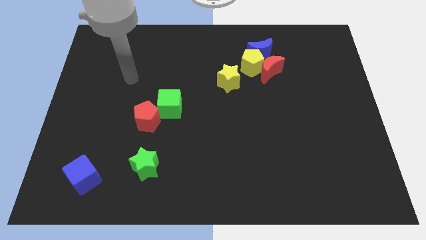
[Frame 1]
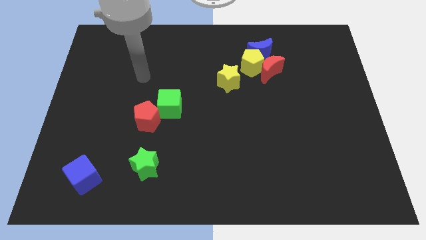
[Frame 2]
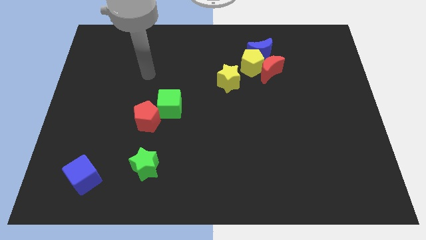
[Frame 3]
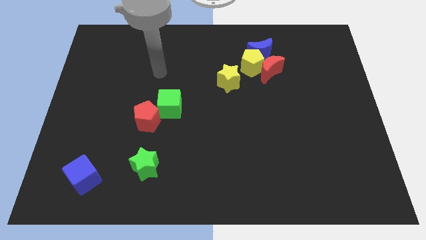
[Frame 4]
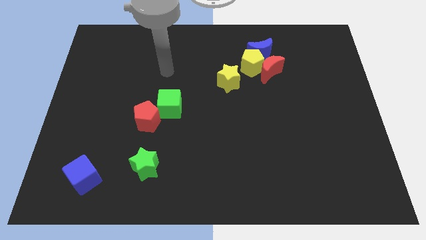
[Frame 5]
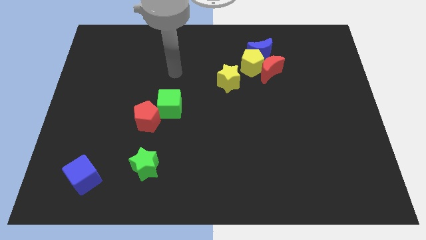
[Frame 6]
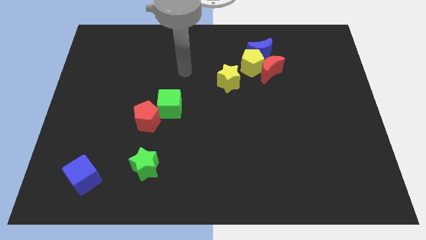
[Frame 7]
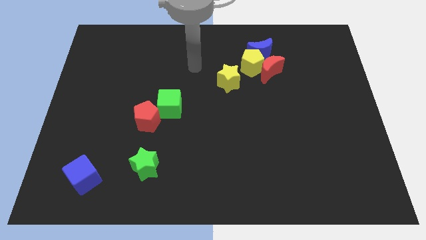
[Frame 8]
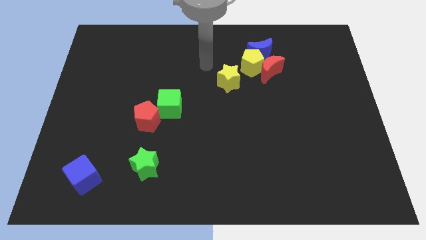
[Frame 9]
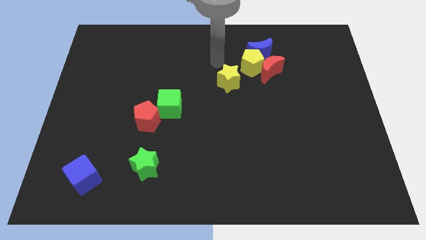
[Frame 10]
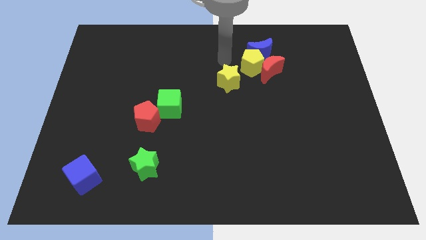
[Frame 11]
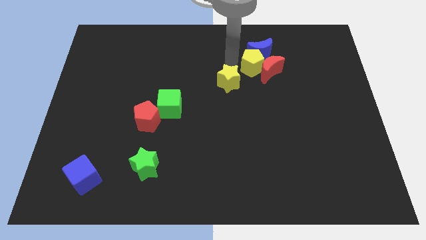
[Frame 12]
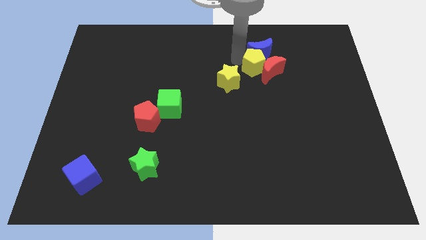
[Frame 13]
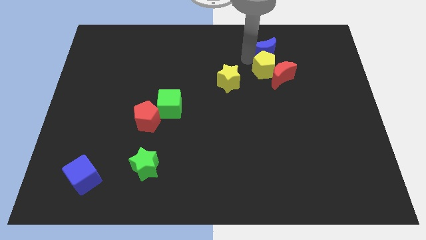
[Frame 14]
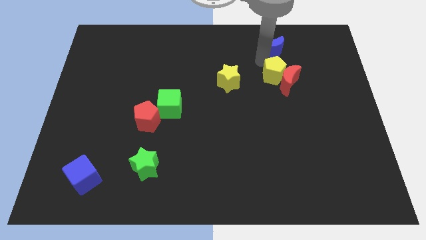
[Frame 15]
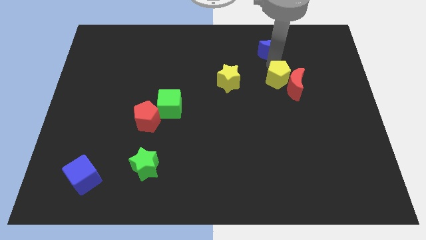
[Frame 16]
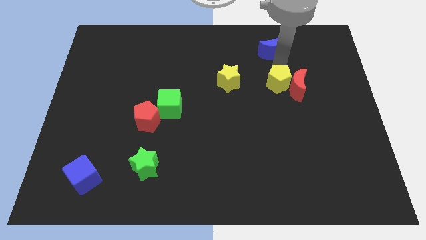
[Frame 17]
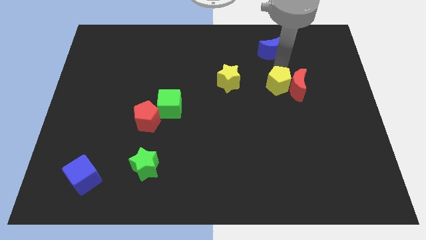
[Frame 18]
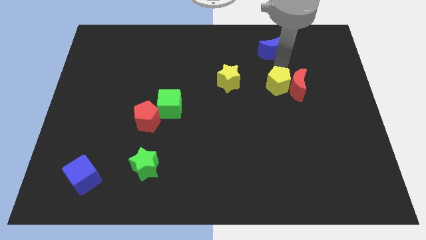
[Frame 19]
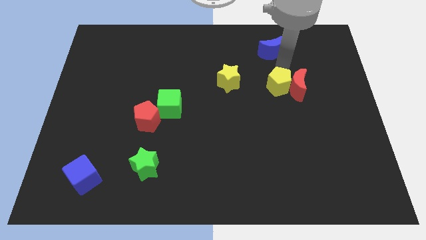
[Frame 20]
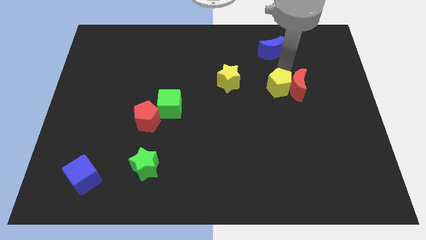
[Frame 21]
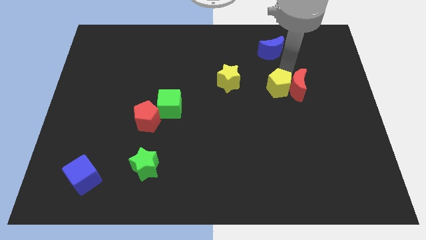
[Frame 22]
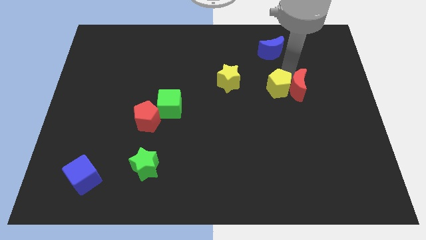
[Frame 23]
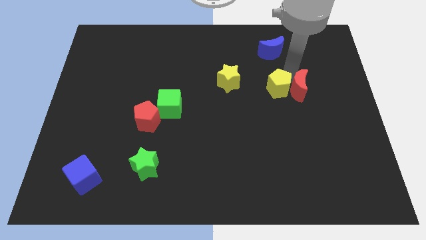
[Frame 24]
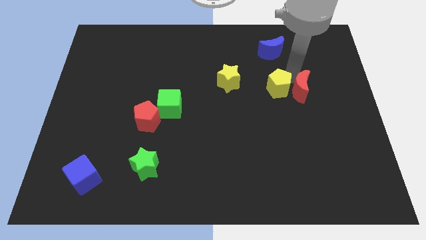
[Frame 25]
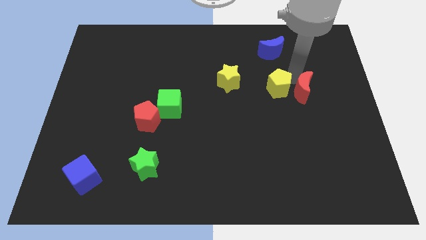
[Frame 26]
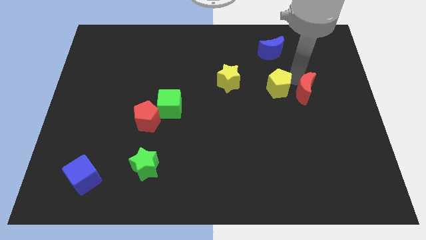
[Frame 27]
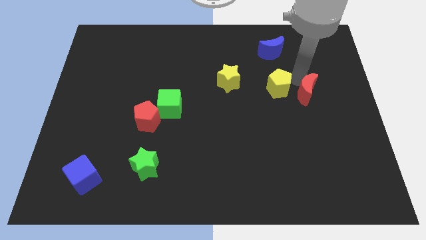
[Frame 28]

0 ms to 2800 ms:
pull the red moon apart from the yellow pentagon and blue moon

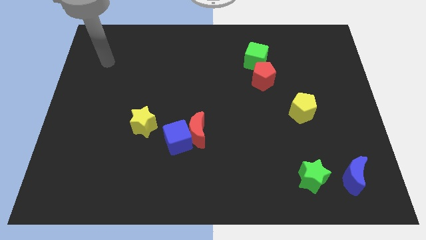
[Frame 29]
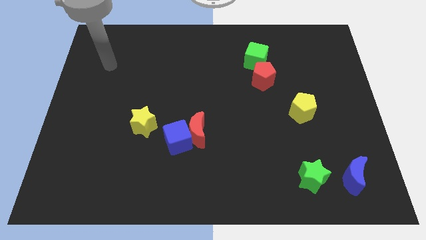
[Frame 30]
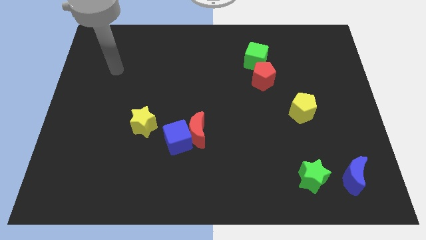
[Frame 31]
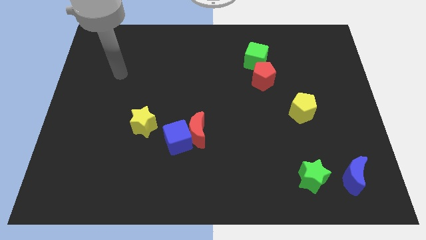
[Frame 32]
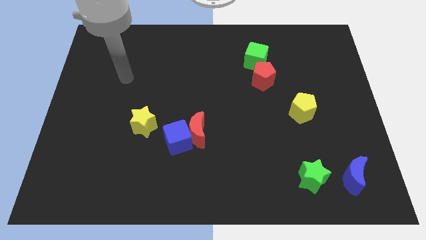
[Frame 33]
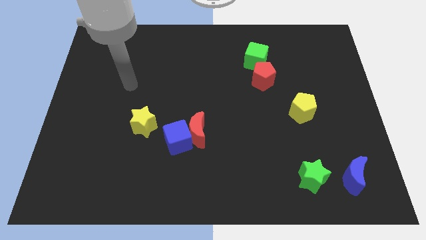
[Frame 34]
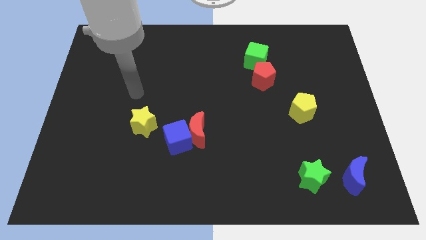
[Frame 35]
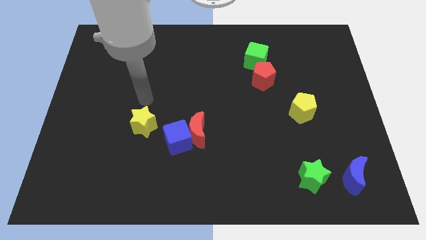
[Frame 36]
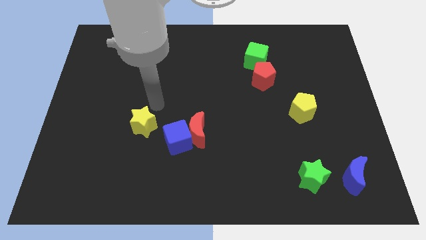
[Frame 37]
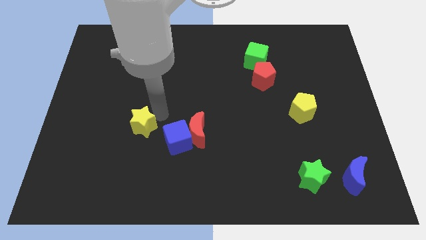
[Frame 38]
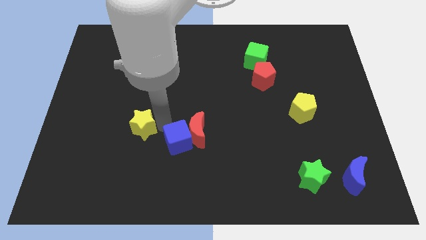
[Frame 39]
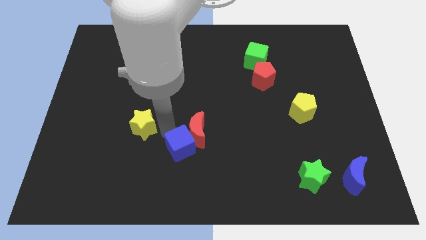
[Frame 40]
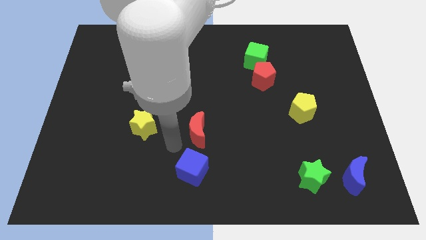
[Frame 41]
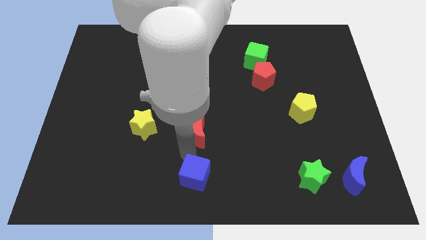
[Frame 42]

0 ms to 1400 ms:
pull the red moon apart from the blue cube

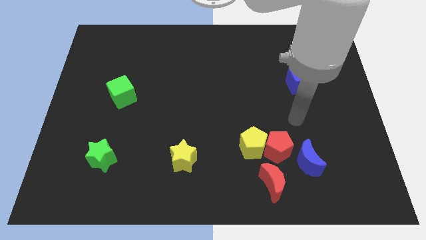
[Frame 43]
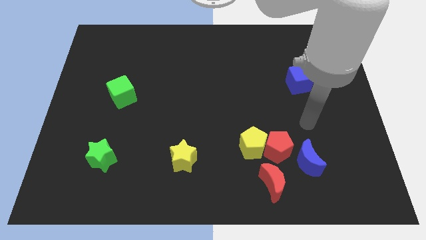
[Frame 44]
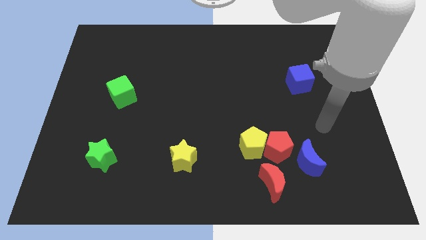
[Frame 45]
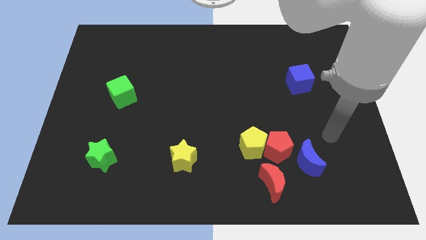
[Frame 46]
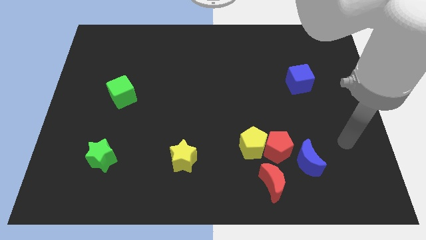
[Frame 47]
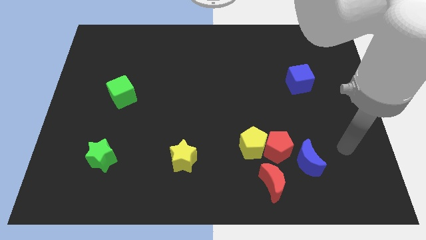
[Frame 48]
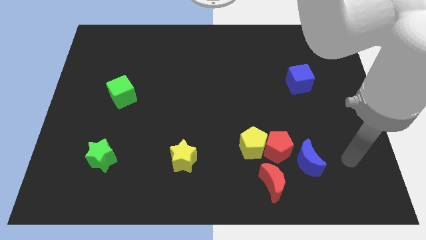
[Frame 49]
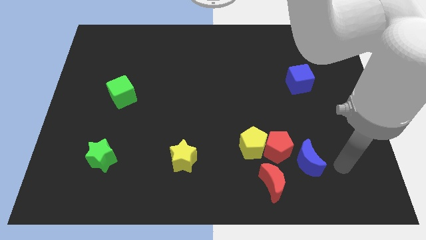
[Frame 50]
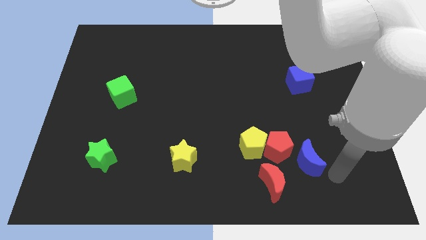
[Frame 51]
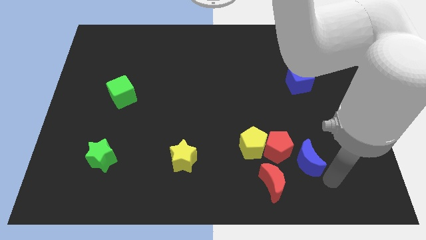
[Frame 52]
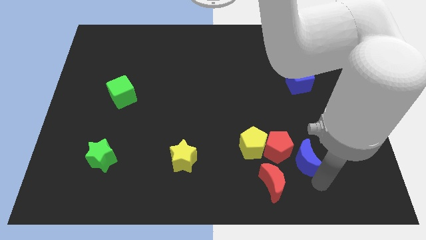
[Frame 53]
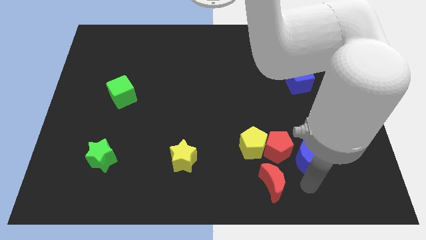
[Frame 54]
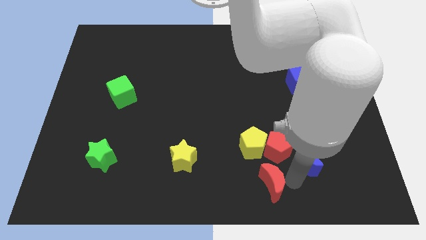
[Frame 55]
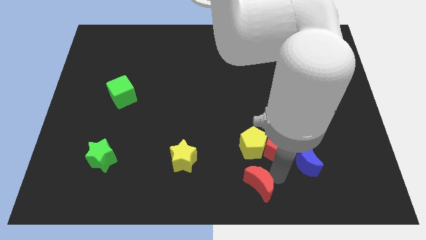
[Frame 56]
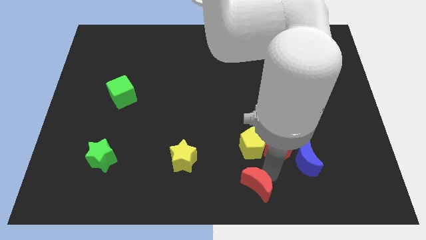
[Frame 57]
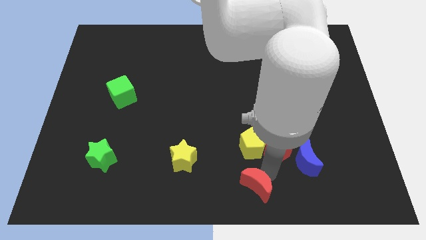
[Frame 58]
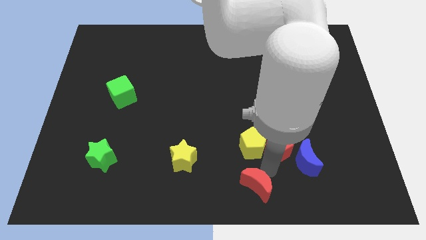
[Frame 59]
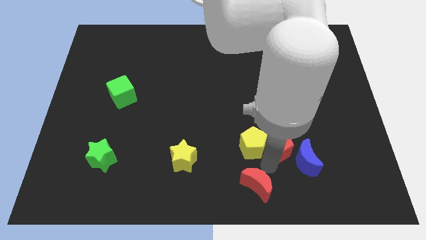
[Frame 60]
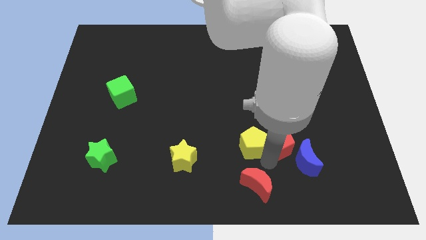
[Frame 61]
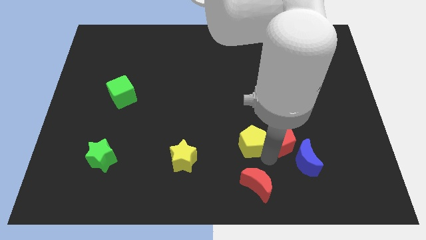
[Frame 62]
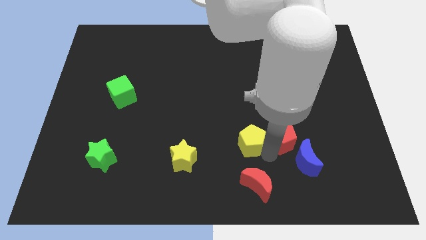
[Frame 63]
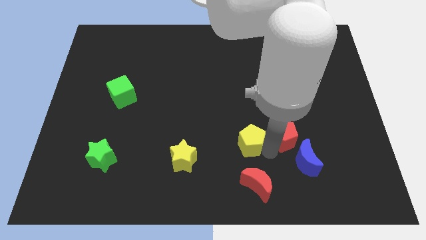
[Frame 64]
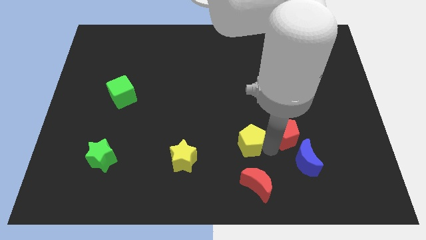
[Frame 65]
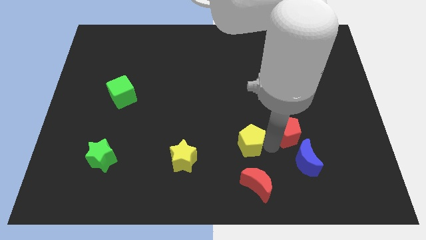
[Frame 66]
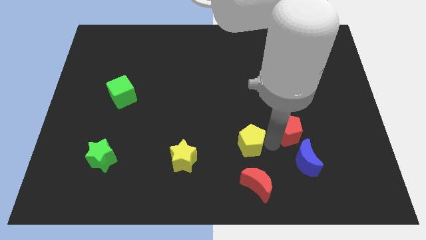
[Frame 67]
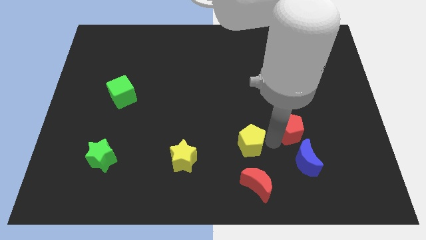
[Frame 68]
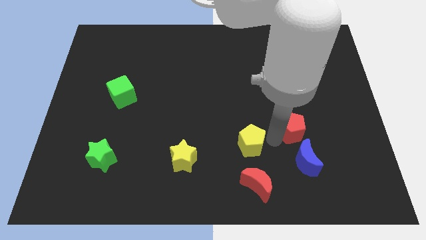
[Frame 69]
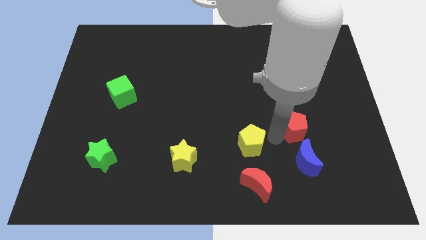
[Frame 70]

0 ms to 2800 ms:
move the red pentagon away from the clump

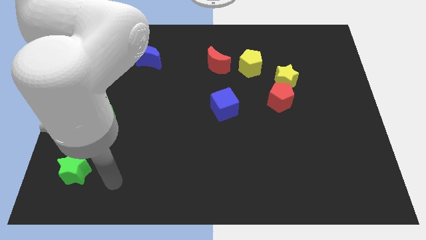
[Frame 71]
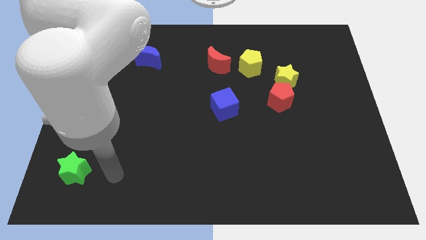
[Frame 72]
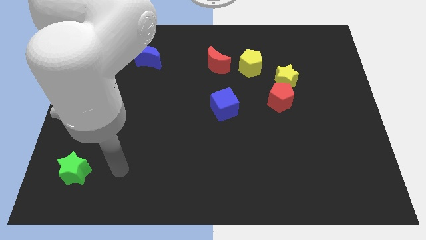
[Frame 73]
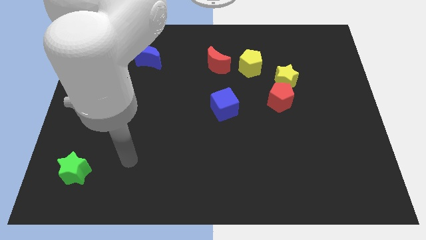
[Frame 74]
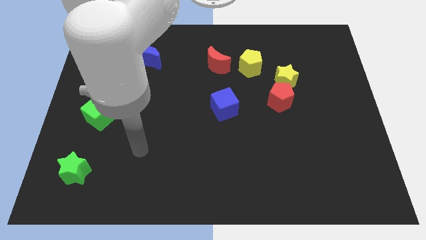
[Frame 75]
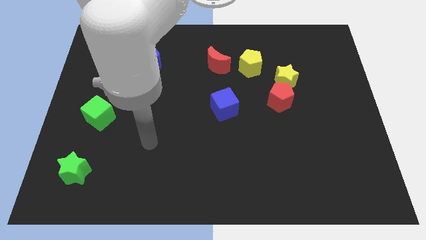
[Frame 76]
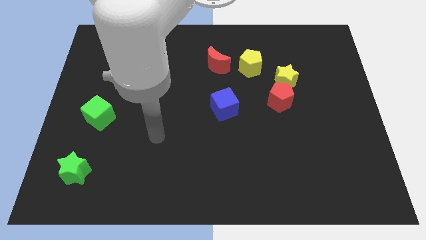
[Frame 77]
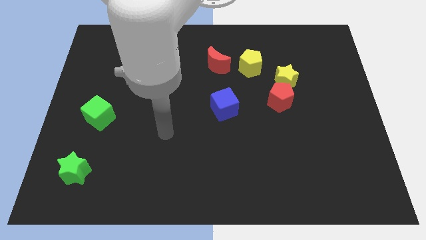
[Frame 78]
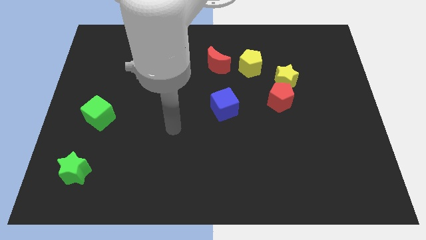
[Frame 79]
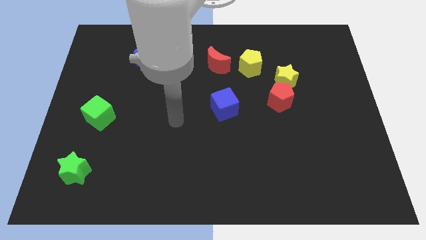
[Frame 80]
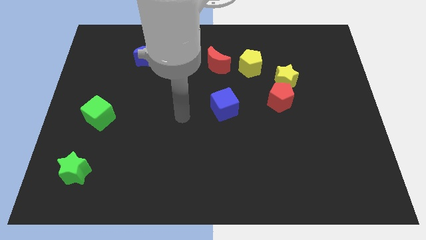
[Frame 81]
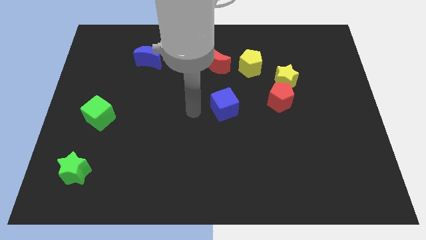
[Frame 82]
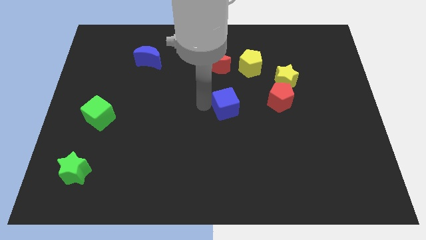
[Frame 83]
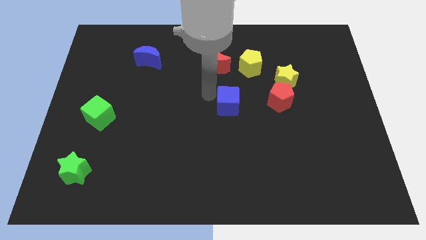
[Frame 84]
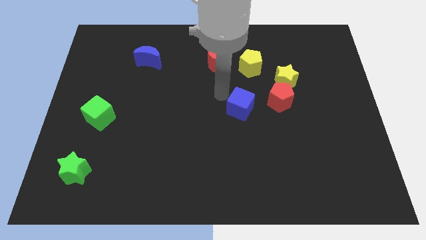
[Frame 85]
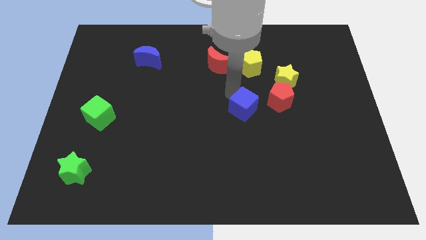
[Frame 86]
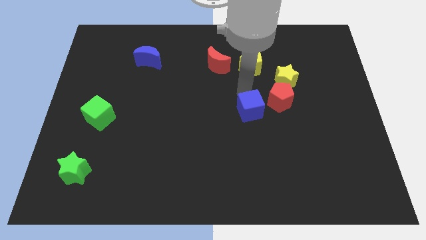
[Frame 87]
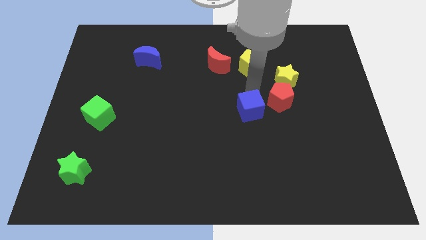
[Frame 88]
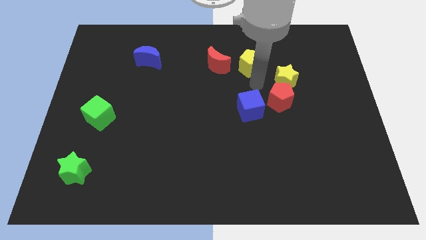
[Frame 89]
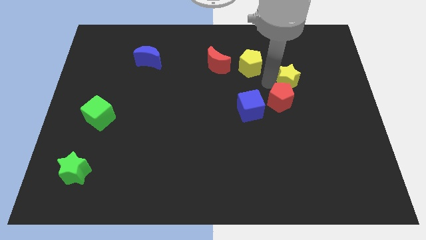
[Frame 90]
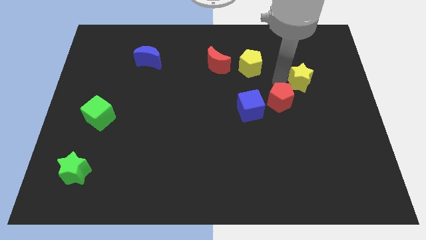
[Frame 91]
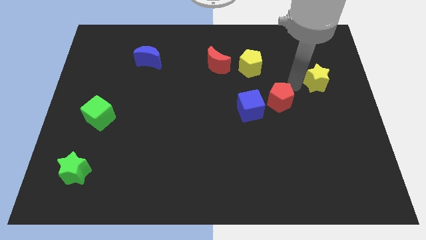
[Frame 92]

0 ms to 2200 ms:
move the red pentagon away from the yellow star

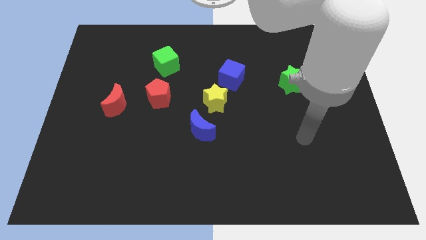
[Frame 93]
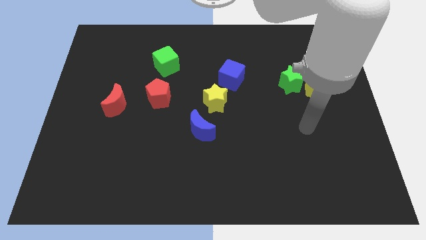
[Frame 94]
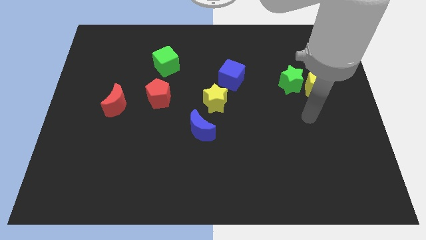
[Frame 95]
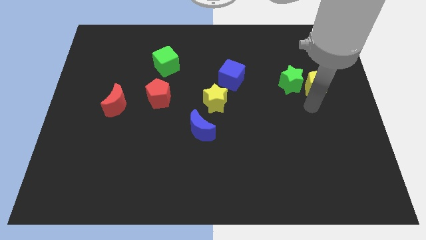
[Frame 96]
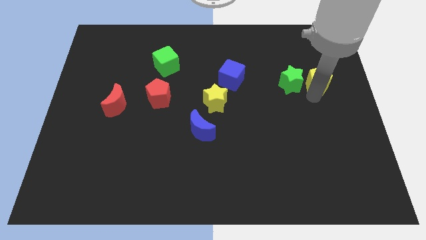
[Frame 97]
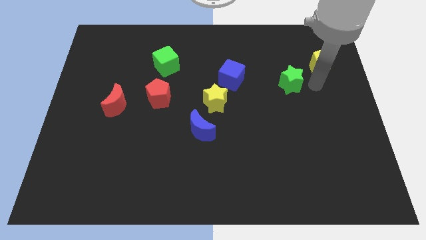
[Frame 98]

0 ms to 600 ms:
separate the green star from the yellow pentagon
